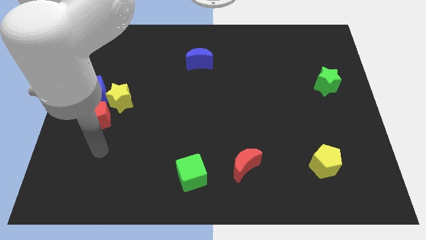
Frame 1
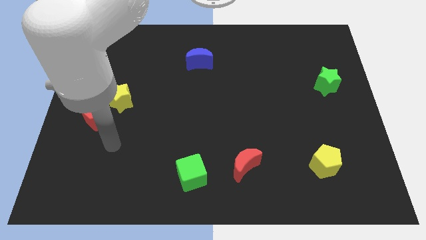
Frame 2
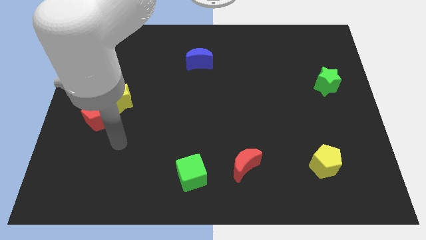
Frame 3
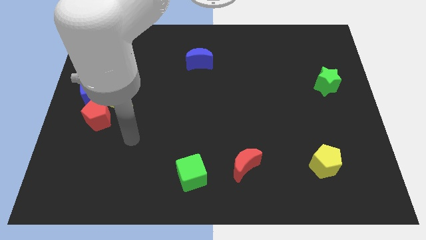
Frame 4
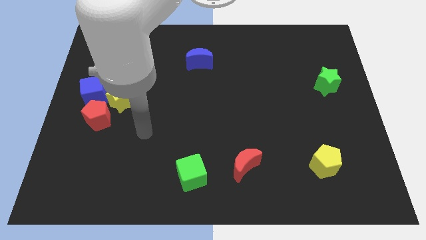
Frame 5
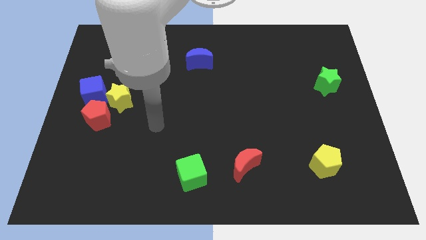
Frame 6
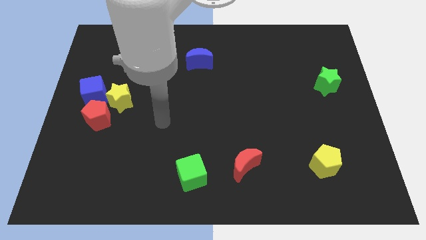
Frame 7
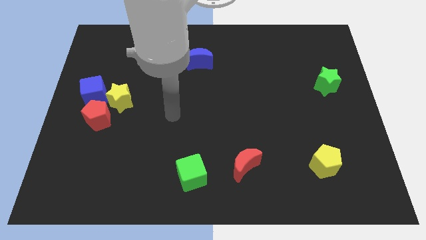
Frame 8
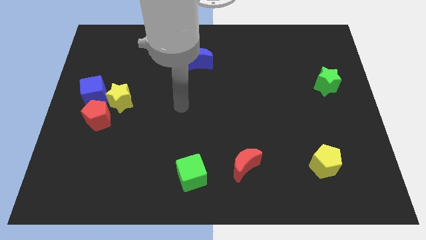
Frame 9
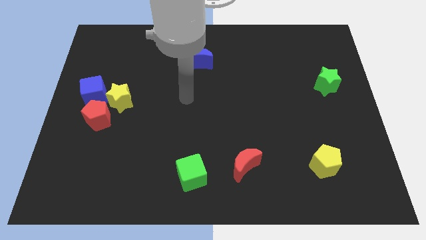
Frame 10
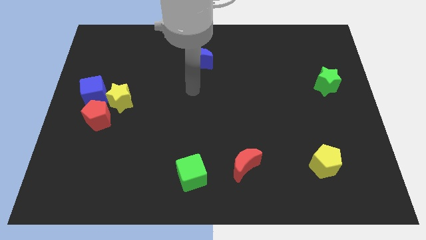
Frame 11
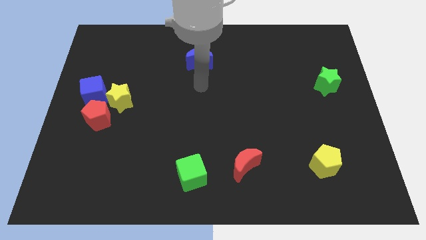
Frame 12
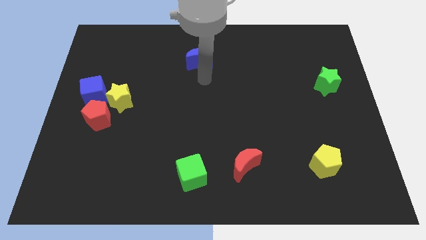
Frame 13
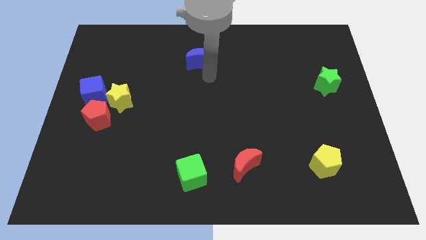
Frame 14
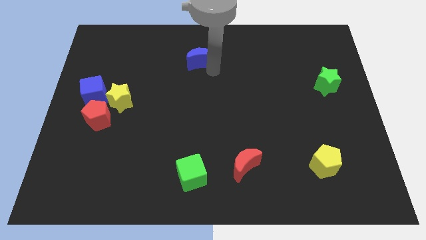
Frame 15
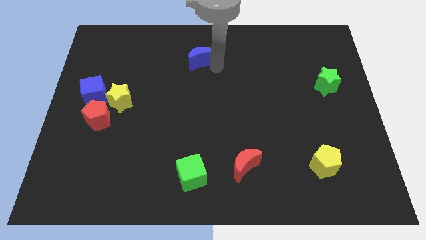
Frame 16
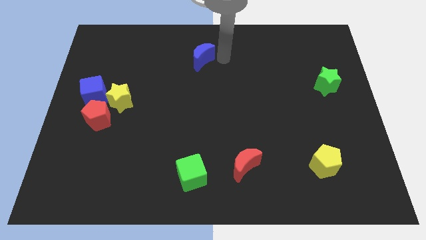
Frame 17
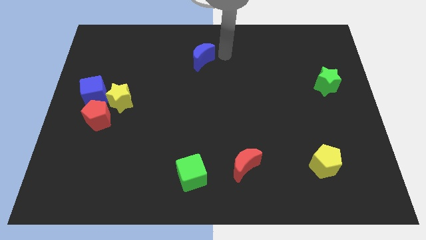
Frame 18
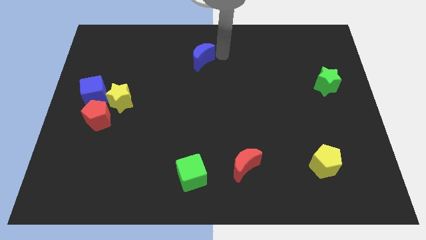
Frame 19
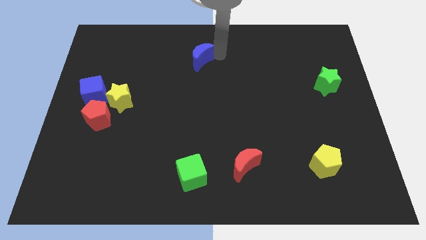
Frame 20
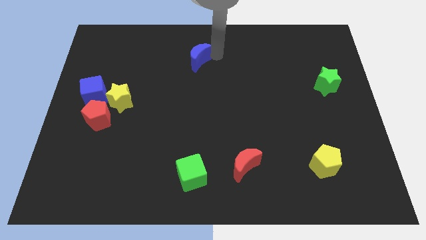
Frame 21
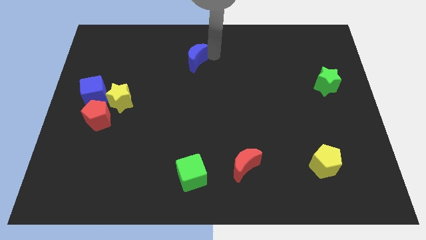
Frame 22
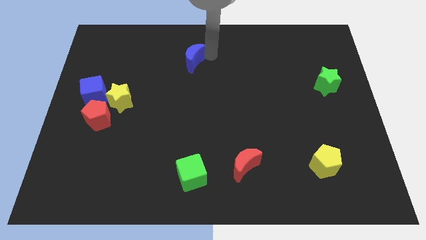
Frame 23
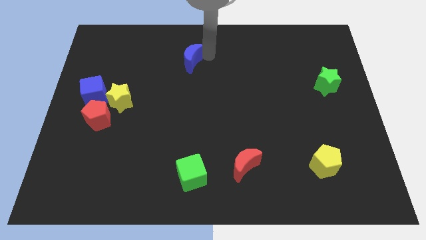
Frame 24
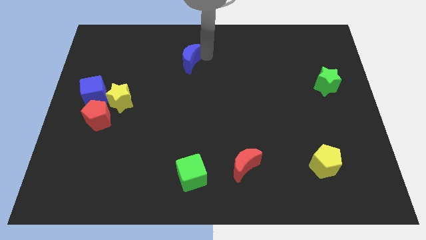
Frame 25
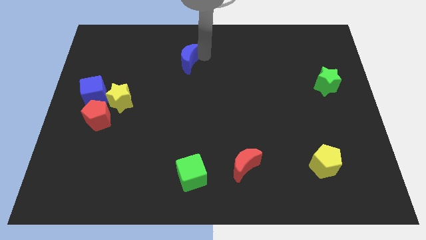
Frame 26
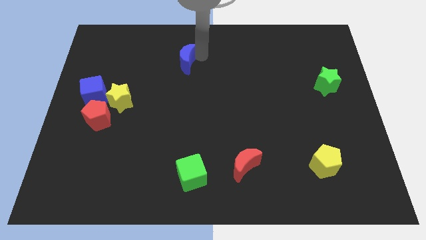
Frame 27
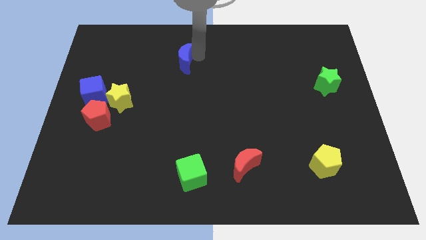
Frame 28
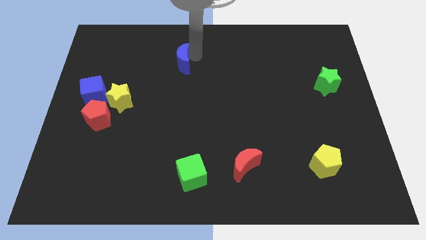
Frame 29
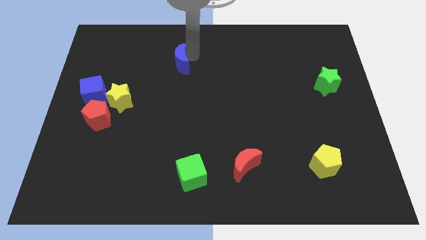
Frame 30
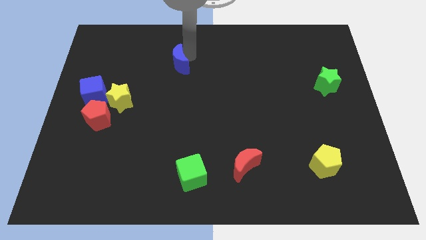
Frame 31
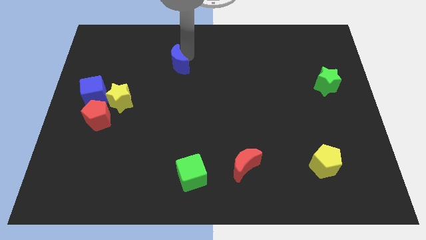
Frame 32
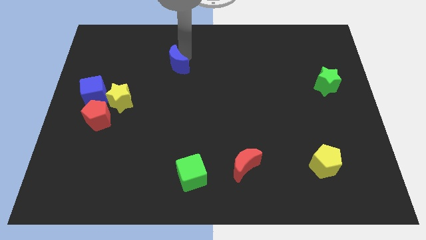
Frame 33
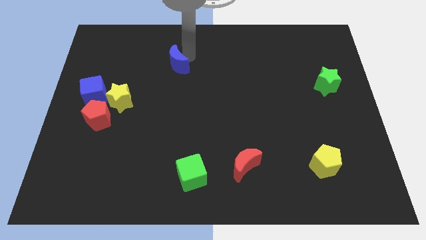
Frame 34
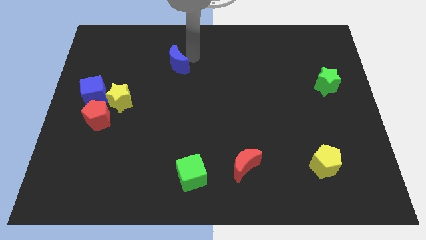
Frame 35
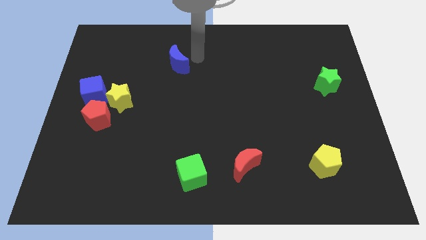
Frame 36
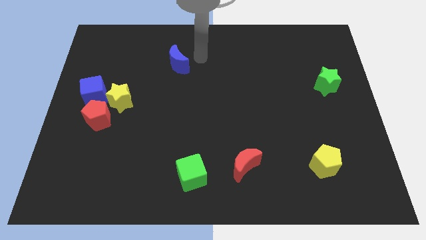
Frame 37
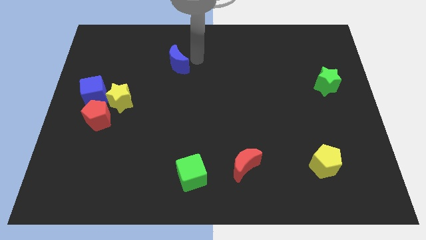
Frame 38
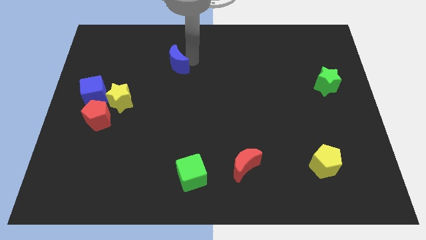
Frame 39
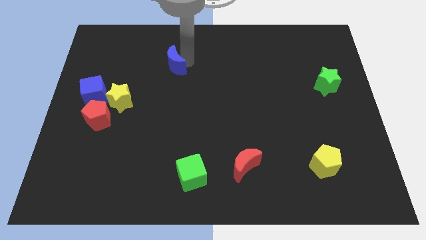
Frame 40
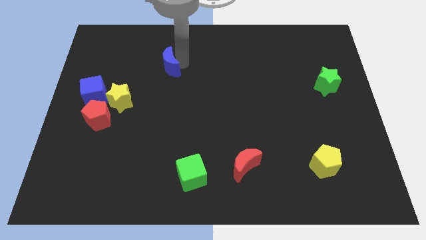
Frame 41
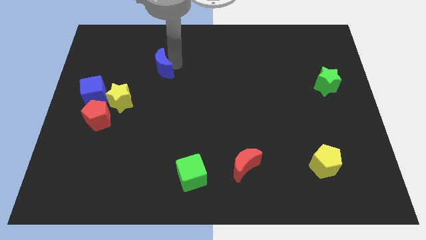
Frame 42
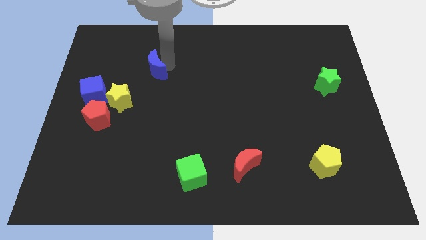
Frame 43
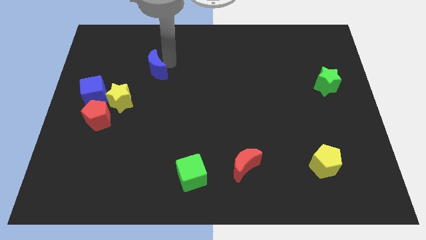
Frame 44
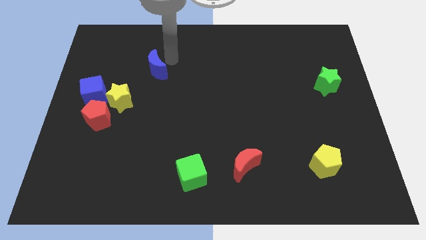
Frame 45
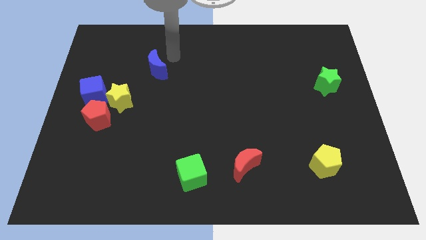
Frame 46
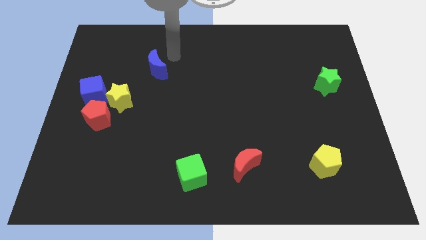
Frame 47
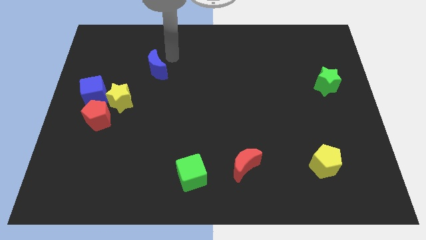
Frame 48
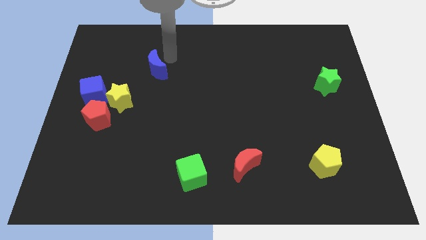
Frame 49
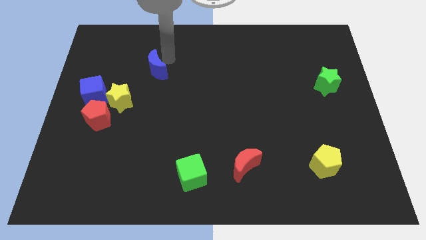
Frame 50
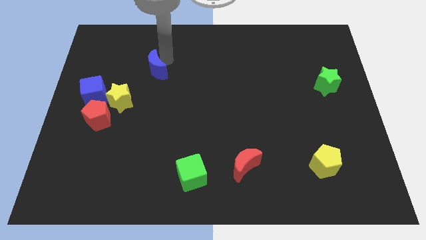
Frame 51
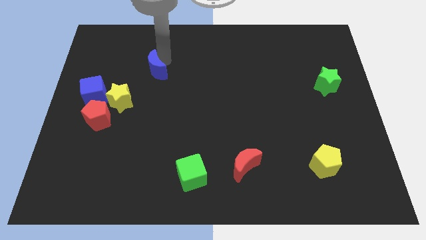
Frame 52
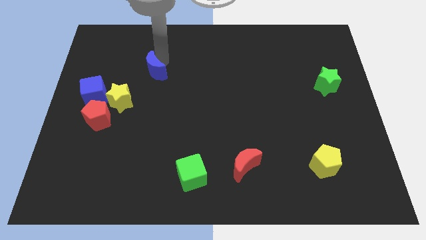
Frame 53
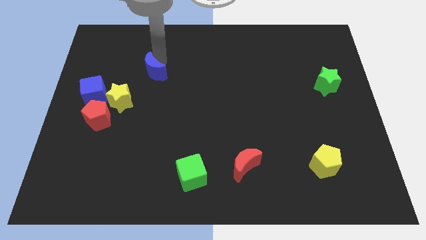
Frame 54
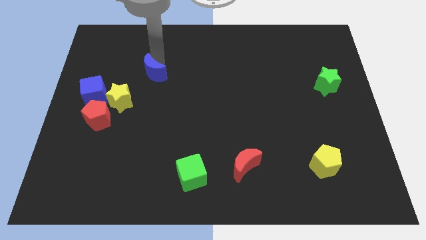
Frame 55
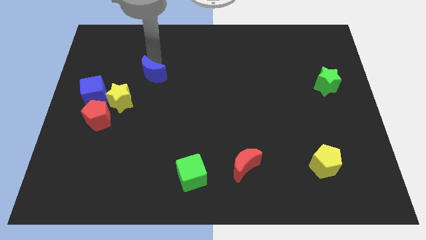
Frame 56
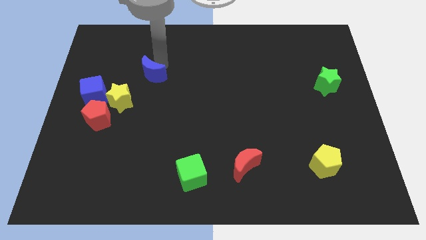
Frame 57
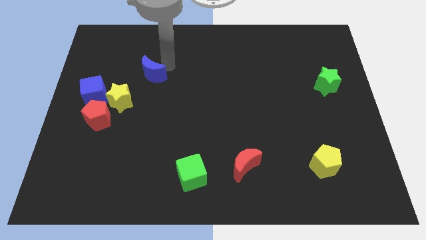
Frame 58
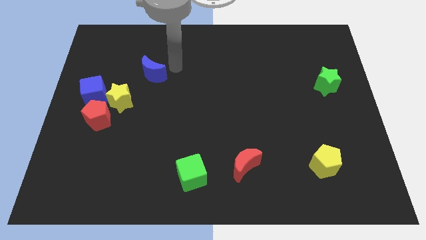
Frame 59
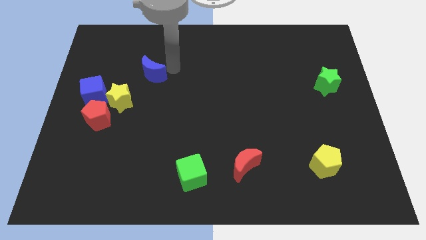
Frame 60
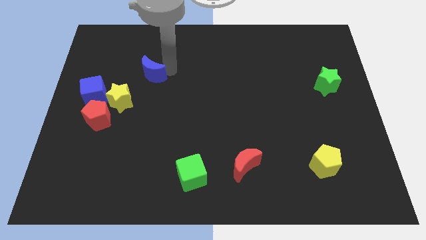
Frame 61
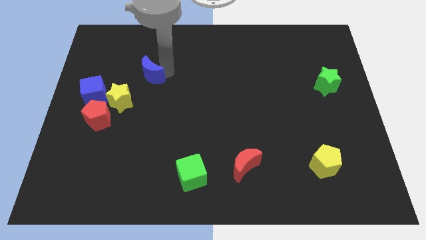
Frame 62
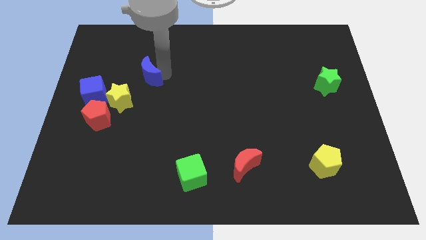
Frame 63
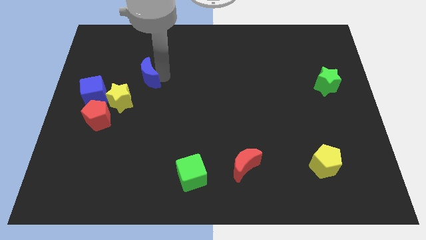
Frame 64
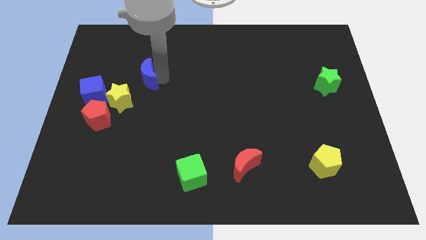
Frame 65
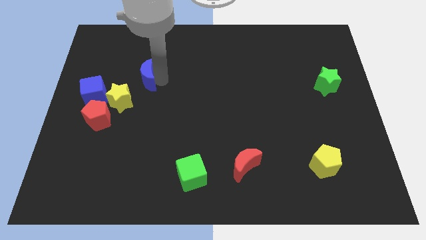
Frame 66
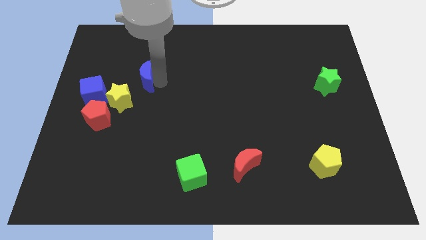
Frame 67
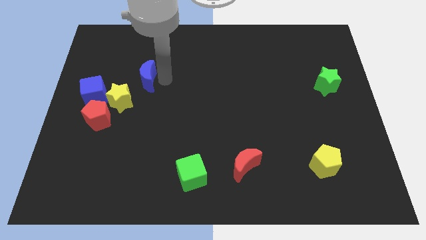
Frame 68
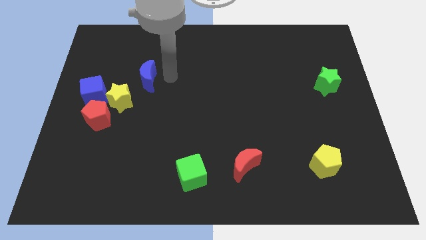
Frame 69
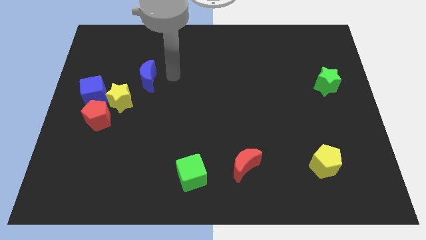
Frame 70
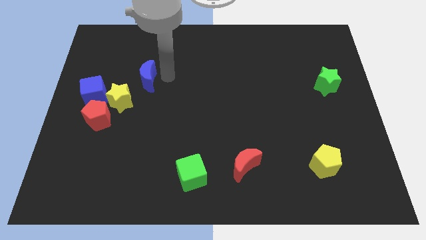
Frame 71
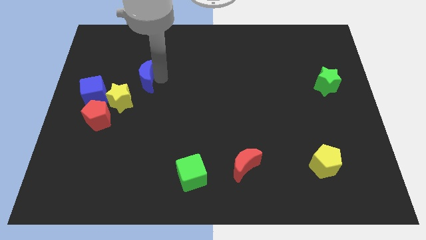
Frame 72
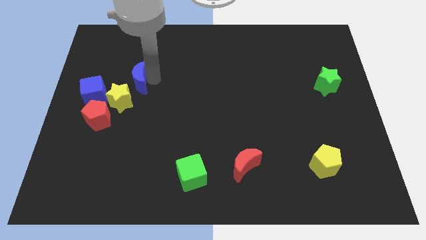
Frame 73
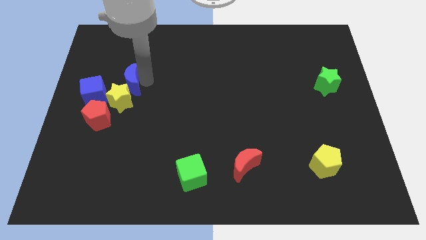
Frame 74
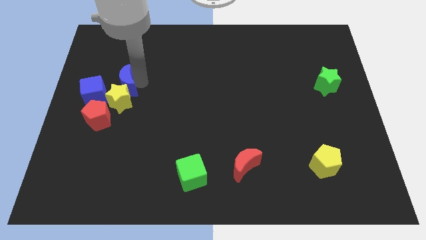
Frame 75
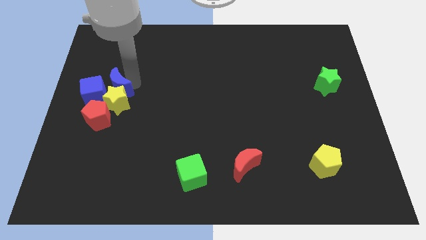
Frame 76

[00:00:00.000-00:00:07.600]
put the blue moon next to the blue cube
